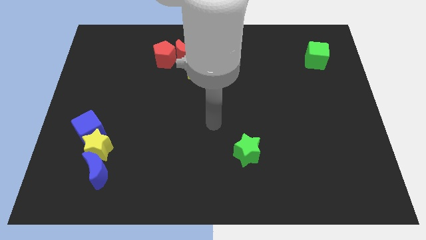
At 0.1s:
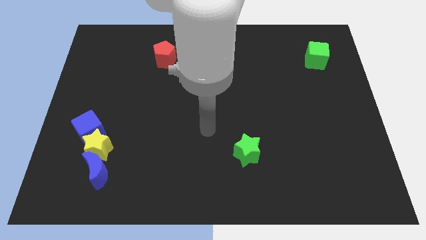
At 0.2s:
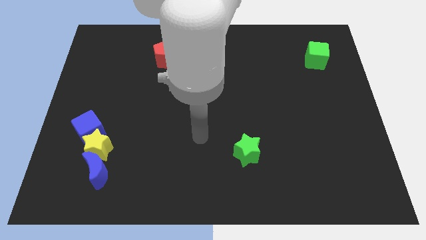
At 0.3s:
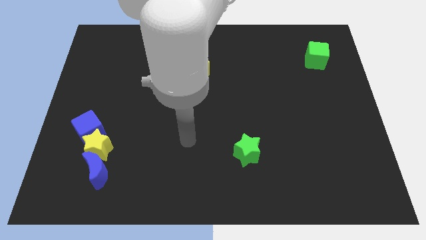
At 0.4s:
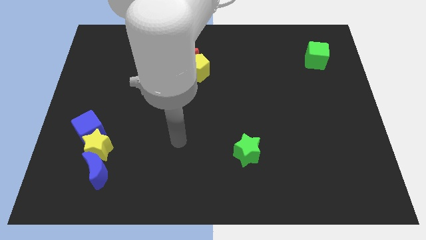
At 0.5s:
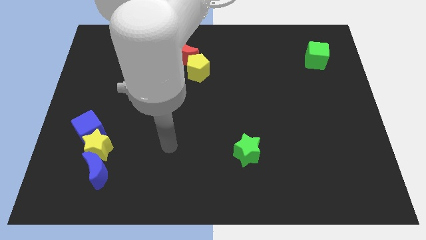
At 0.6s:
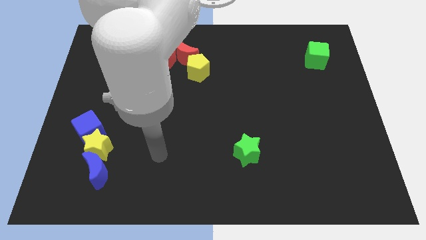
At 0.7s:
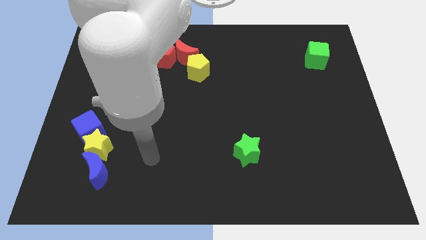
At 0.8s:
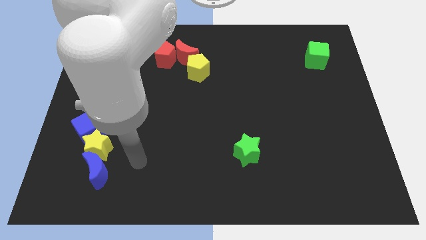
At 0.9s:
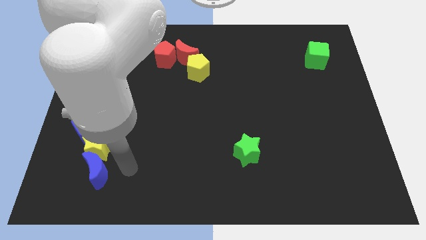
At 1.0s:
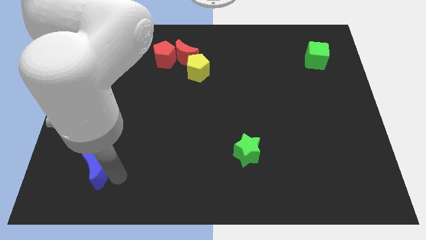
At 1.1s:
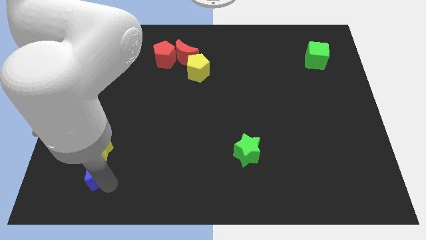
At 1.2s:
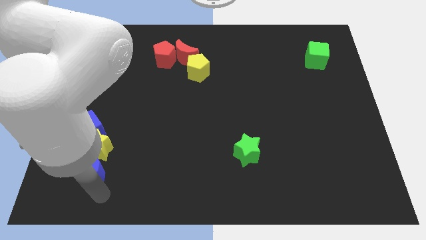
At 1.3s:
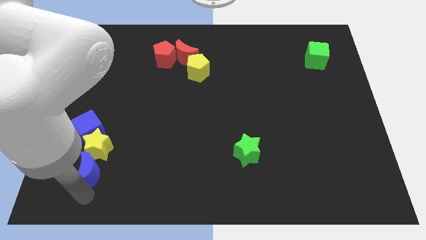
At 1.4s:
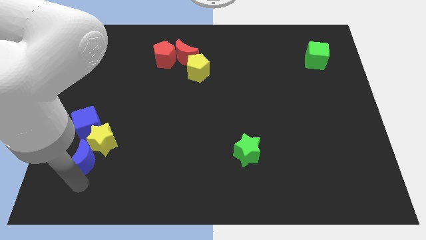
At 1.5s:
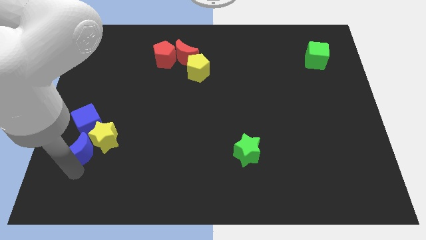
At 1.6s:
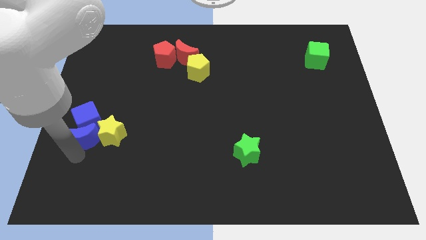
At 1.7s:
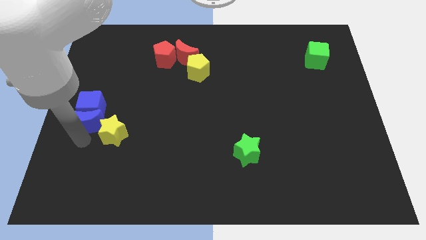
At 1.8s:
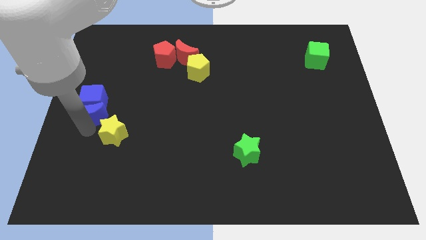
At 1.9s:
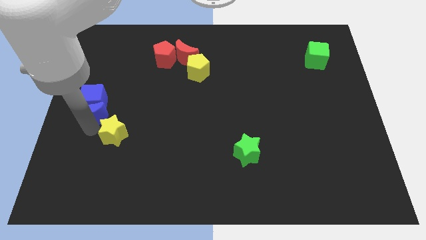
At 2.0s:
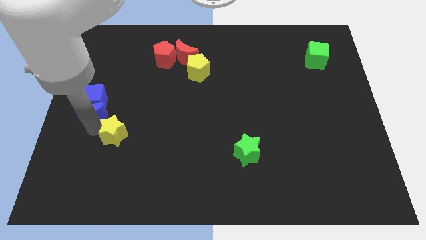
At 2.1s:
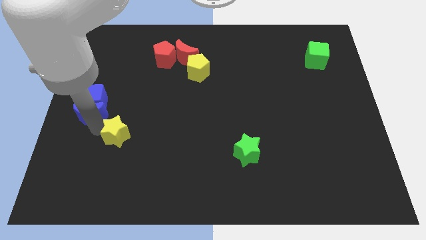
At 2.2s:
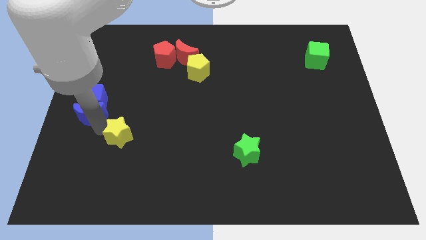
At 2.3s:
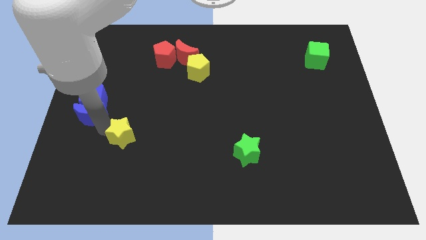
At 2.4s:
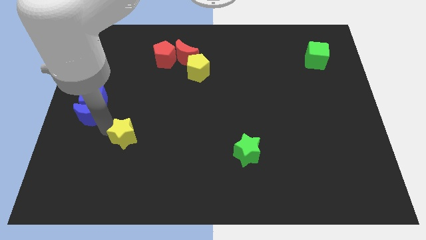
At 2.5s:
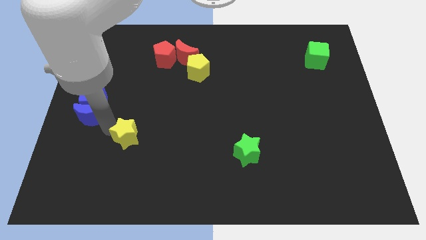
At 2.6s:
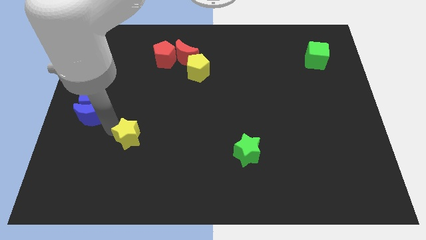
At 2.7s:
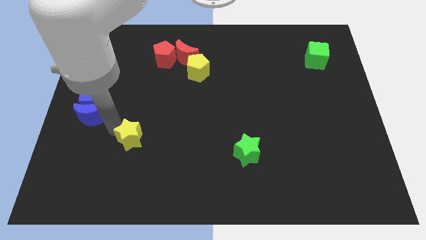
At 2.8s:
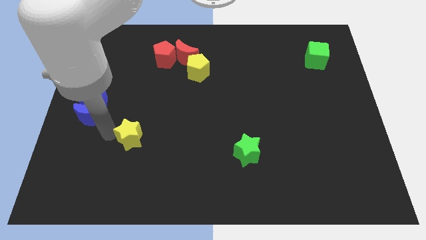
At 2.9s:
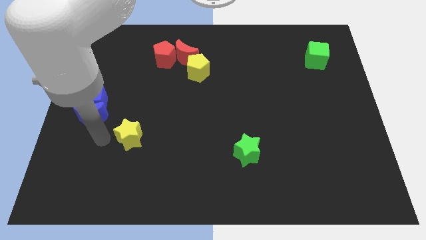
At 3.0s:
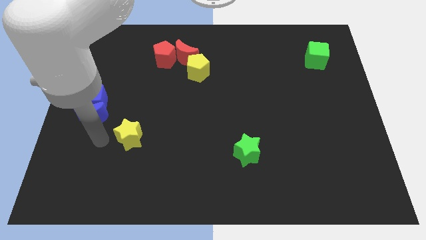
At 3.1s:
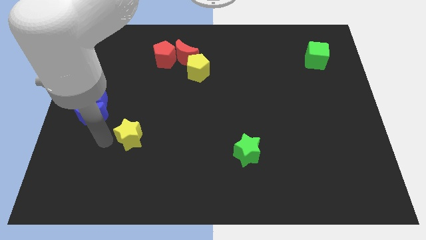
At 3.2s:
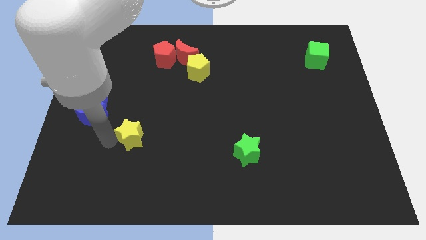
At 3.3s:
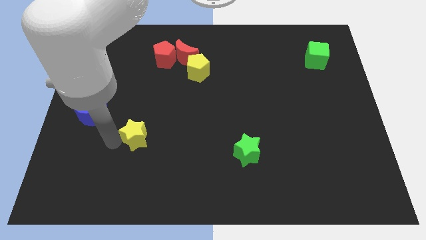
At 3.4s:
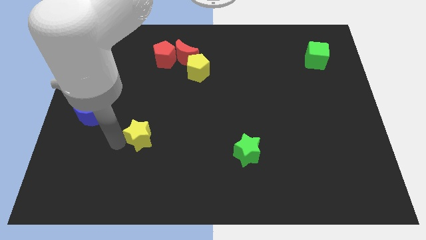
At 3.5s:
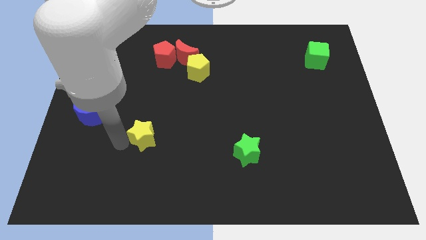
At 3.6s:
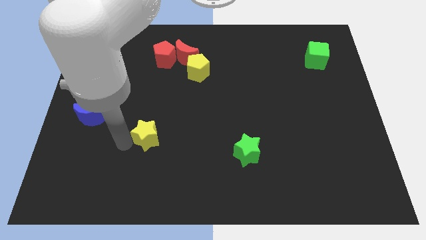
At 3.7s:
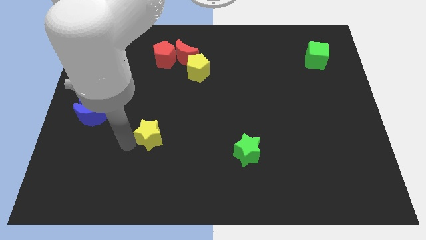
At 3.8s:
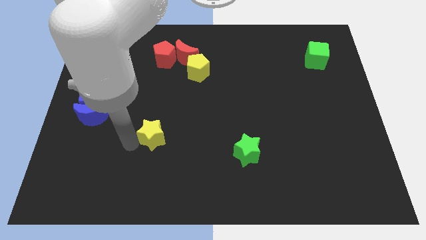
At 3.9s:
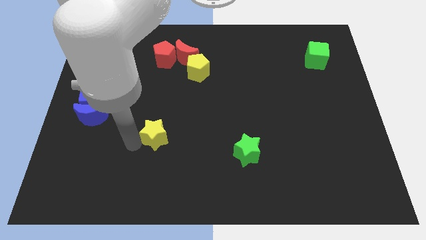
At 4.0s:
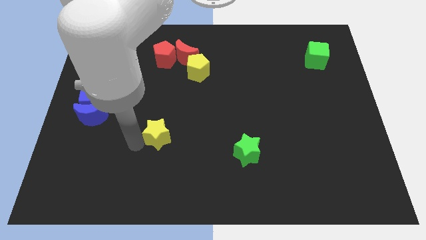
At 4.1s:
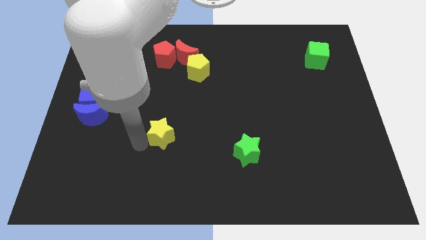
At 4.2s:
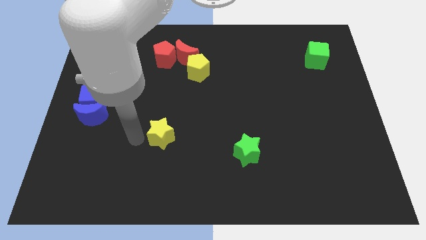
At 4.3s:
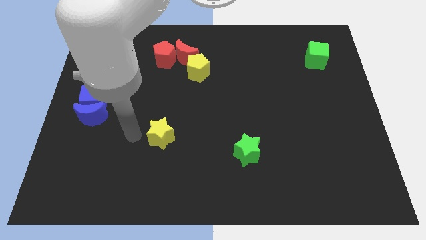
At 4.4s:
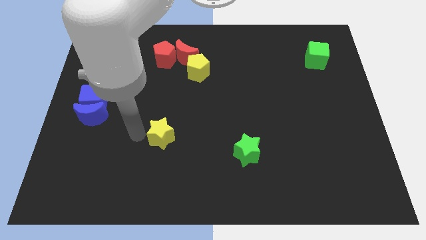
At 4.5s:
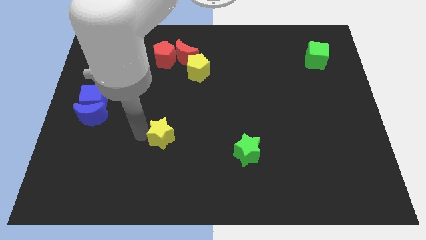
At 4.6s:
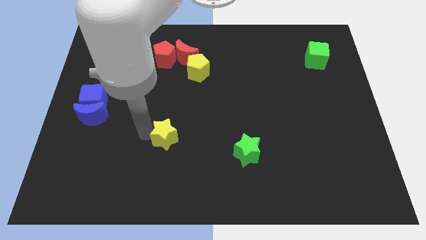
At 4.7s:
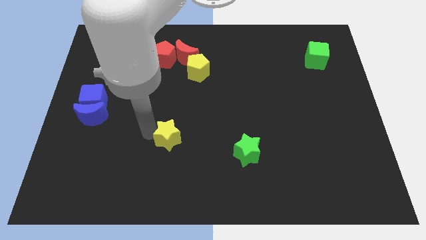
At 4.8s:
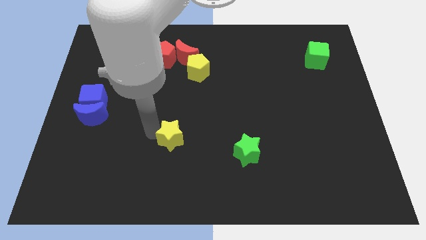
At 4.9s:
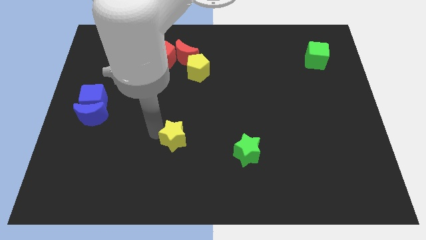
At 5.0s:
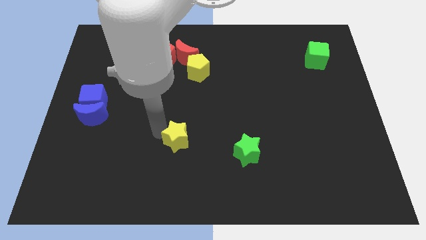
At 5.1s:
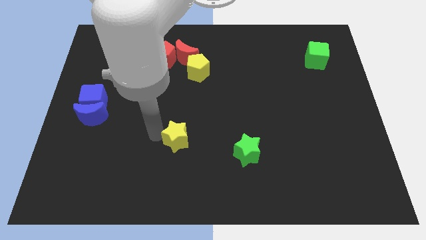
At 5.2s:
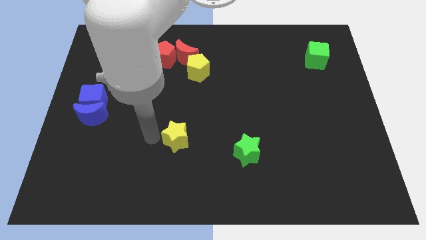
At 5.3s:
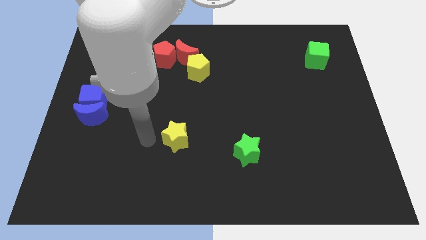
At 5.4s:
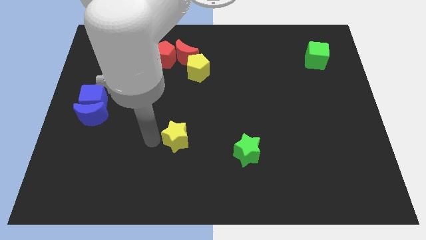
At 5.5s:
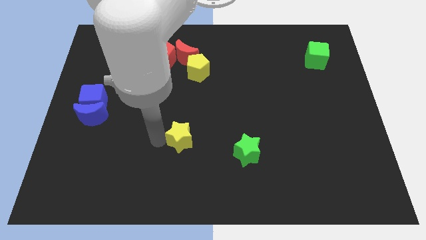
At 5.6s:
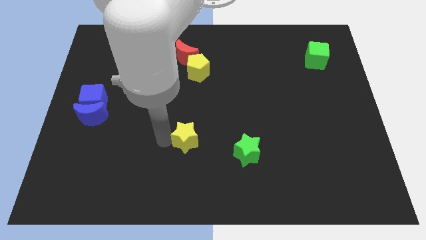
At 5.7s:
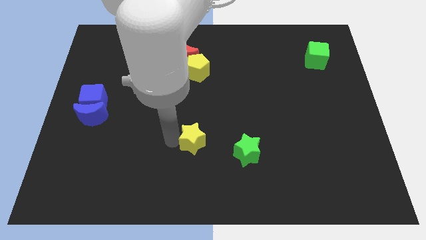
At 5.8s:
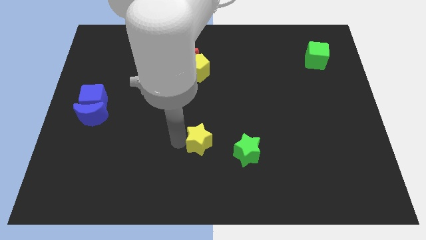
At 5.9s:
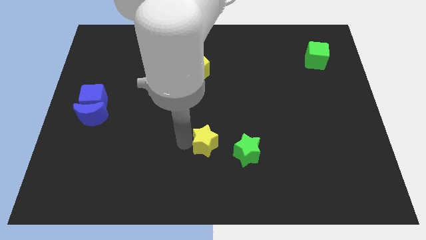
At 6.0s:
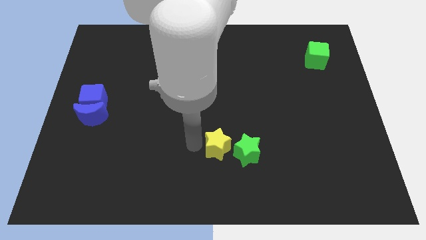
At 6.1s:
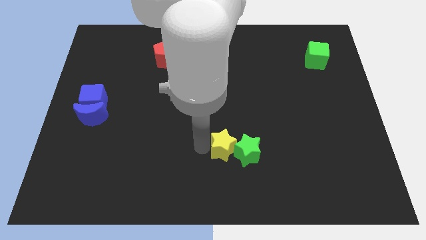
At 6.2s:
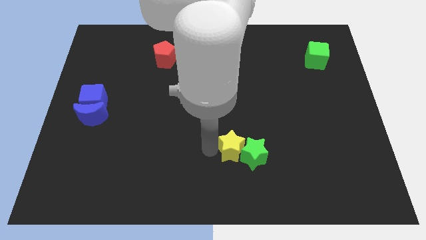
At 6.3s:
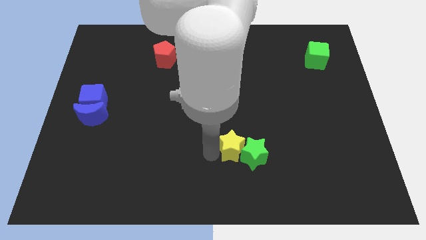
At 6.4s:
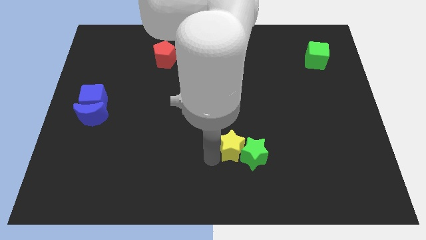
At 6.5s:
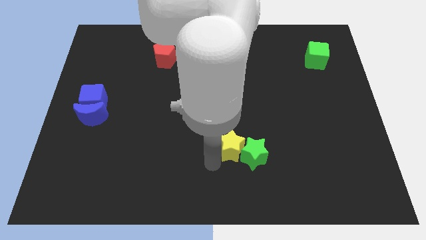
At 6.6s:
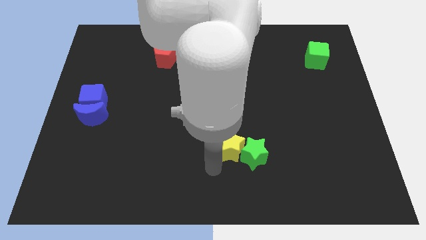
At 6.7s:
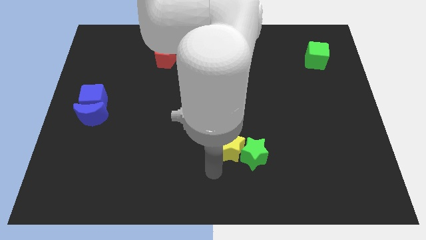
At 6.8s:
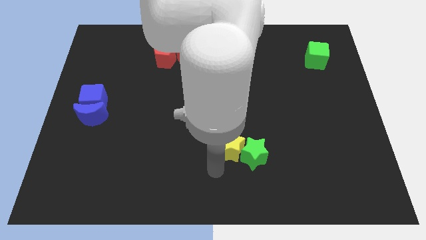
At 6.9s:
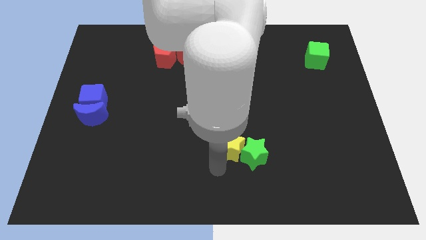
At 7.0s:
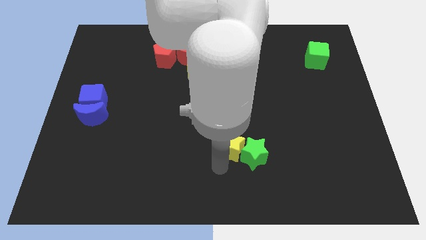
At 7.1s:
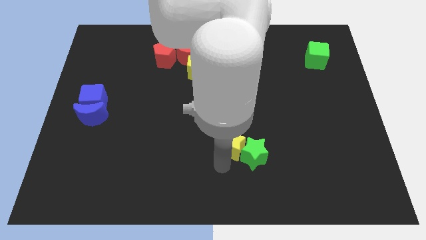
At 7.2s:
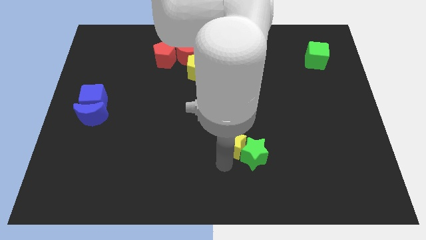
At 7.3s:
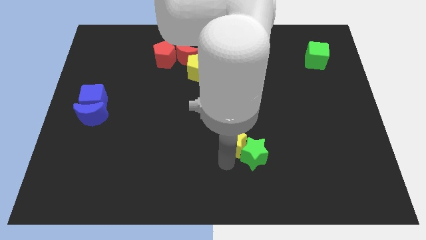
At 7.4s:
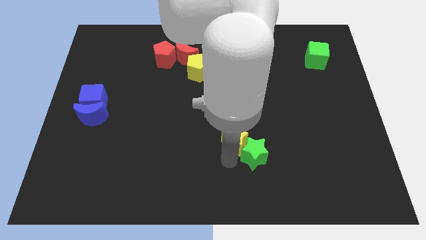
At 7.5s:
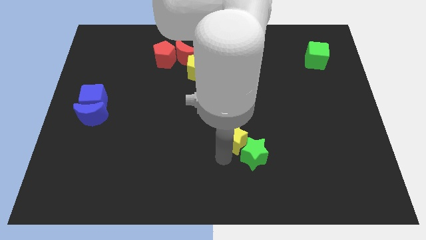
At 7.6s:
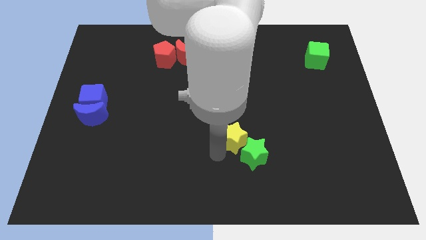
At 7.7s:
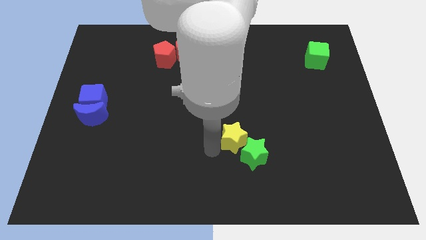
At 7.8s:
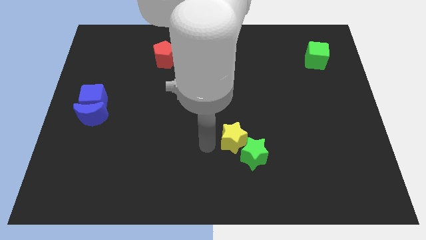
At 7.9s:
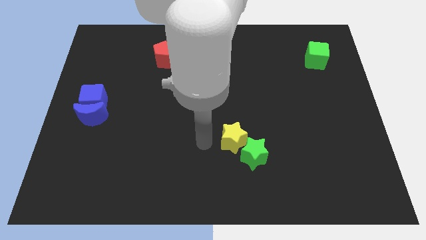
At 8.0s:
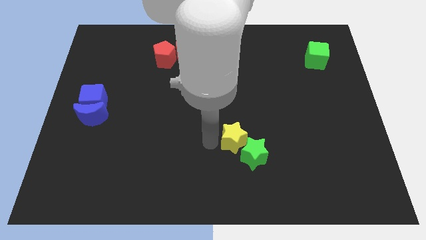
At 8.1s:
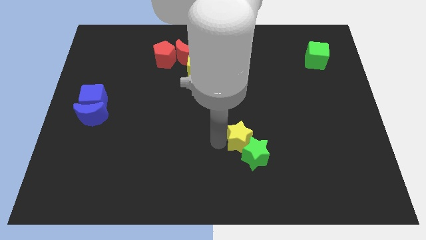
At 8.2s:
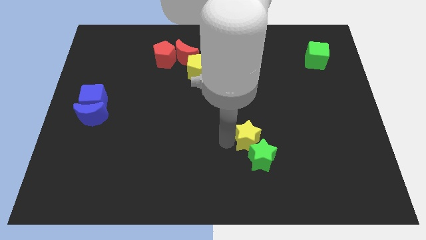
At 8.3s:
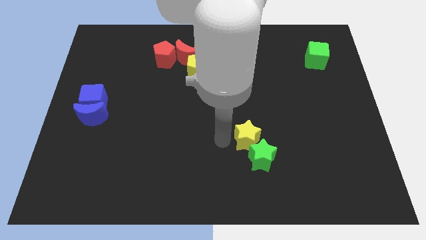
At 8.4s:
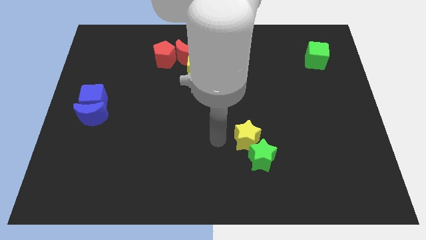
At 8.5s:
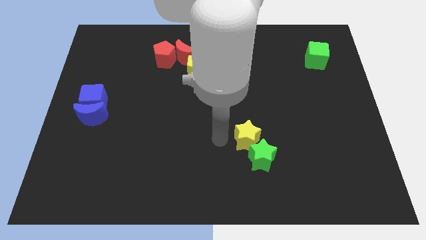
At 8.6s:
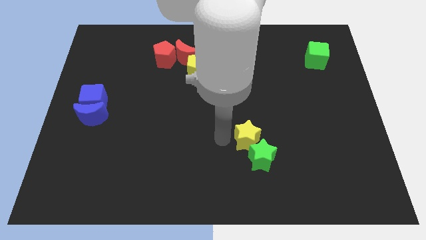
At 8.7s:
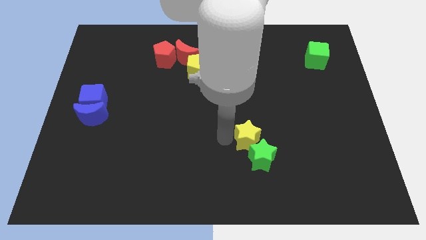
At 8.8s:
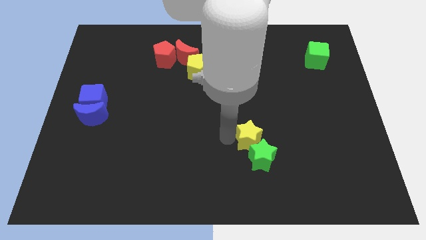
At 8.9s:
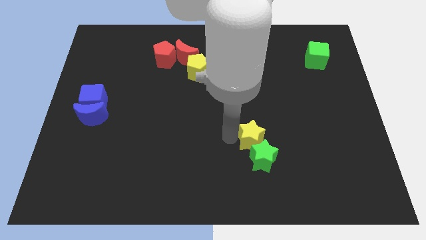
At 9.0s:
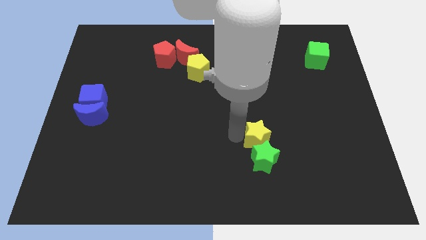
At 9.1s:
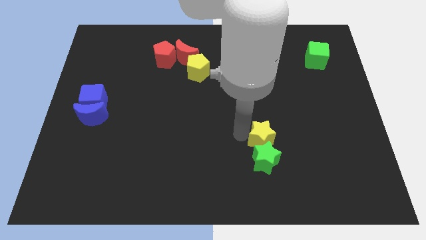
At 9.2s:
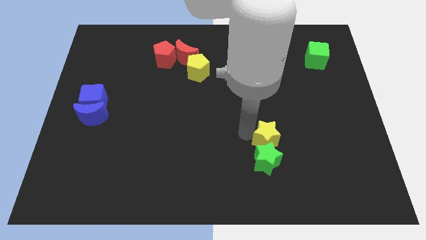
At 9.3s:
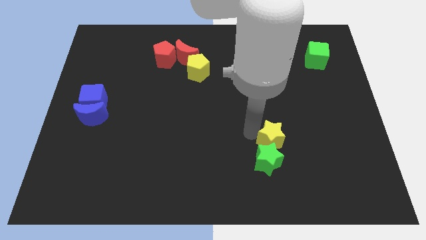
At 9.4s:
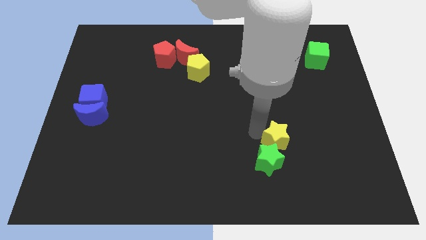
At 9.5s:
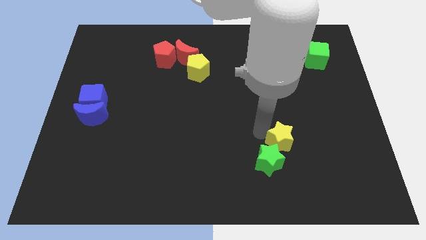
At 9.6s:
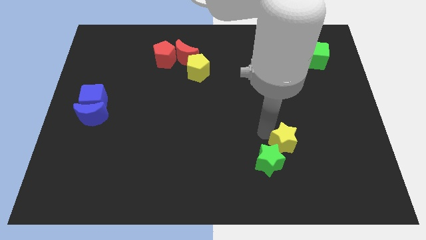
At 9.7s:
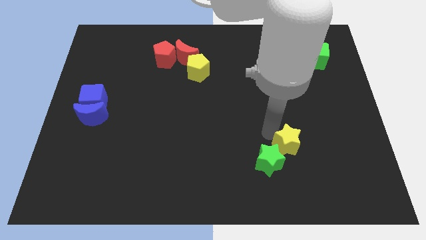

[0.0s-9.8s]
slide the yellow star right of the green star
